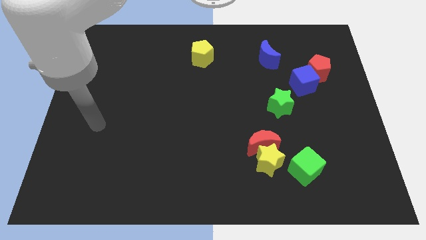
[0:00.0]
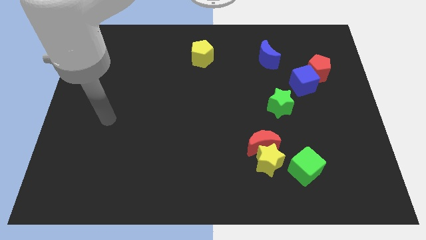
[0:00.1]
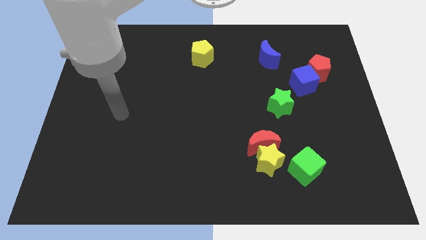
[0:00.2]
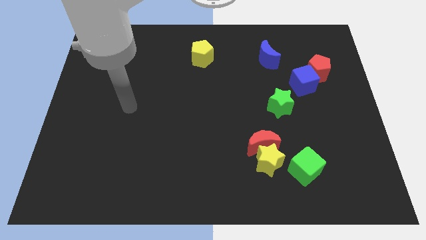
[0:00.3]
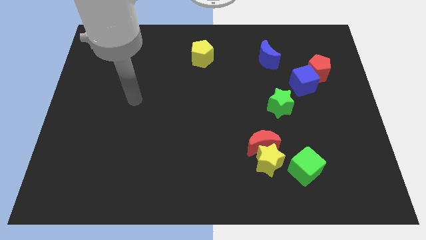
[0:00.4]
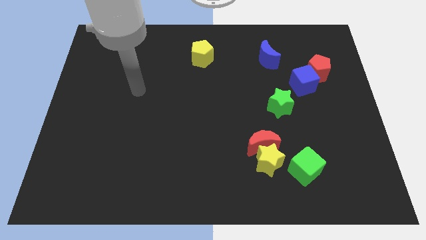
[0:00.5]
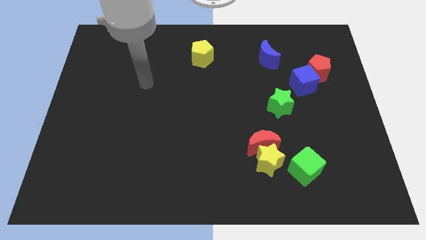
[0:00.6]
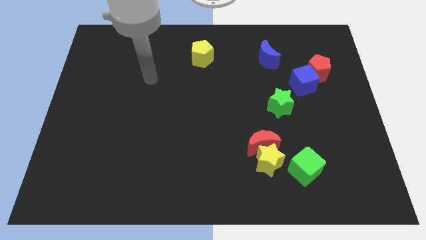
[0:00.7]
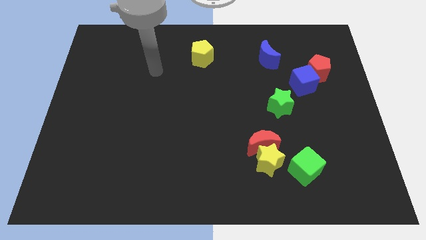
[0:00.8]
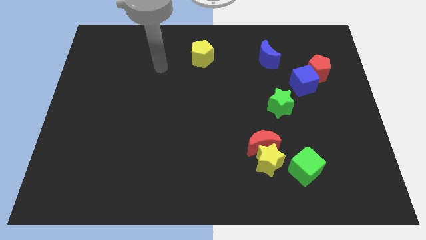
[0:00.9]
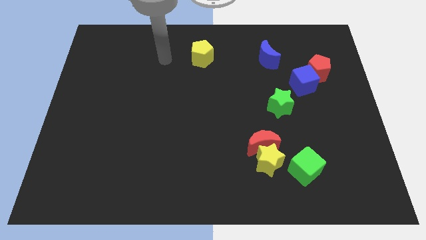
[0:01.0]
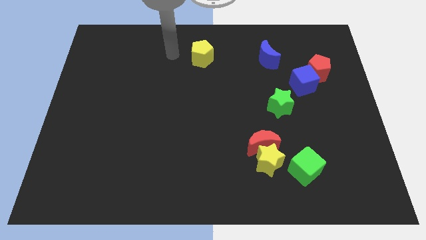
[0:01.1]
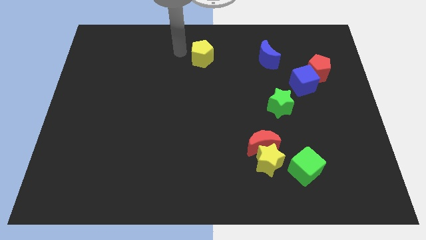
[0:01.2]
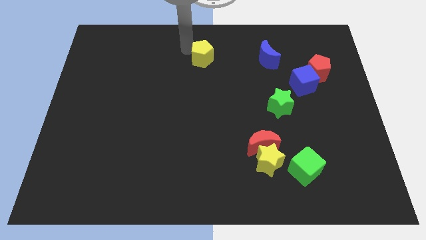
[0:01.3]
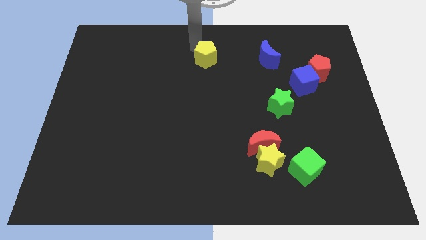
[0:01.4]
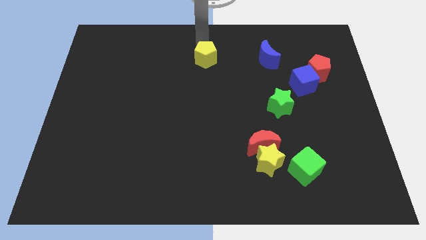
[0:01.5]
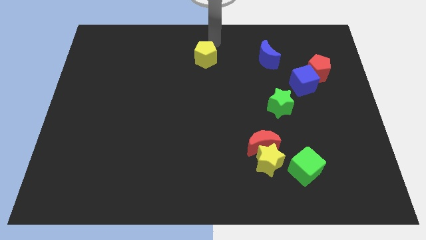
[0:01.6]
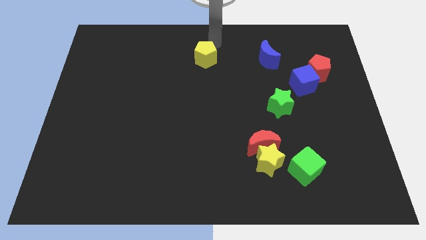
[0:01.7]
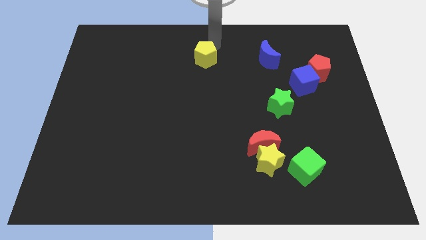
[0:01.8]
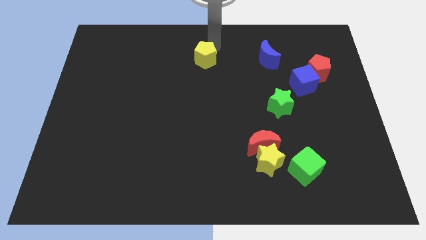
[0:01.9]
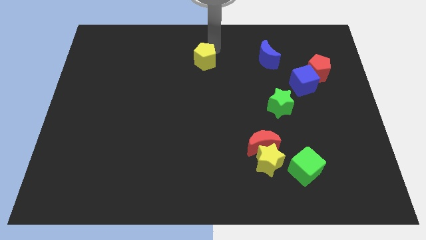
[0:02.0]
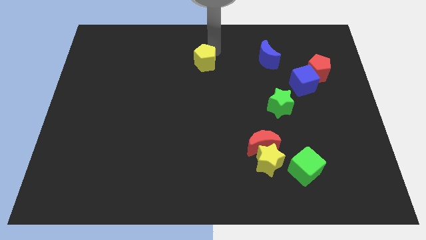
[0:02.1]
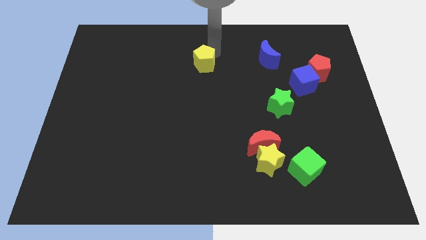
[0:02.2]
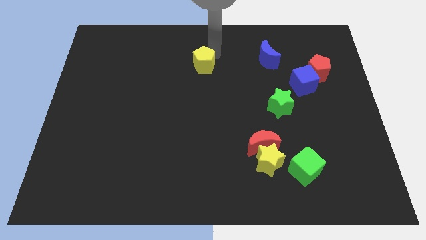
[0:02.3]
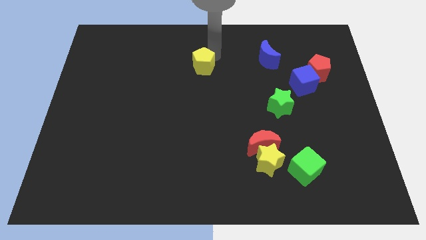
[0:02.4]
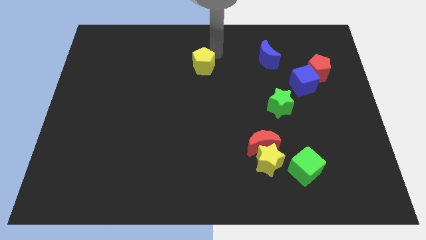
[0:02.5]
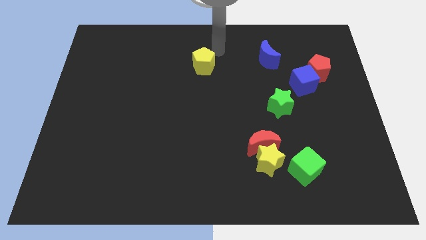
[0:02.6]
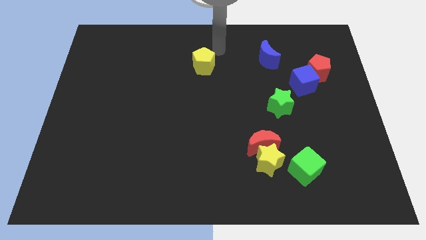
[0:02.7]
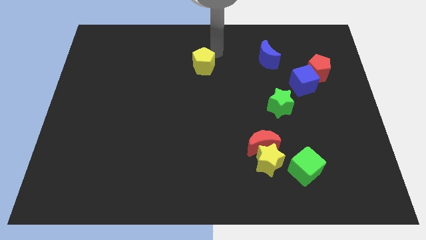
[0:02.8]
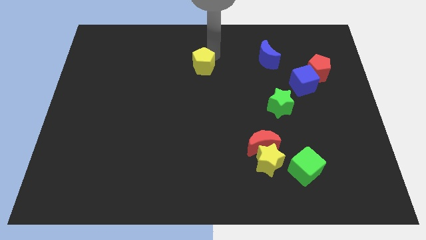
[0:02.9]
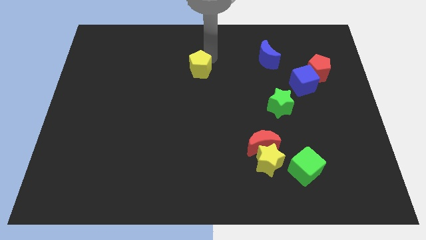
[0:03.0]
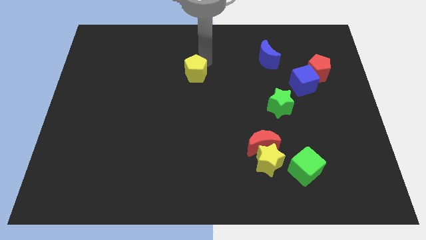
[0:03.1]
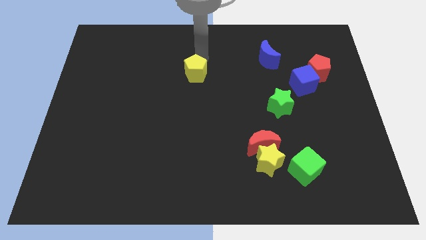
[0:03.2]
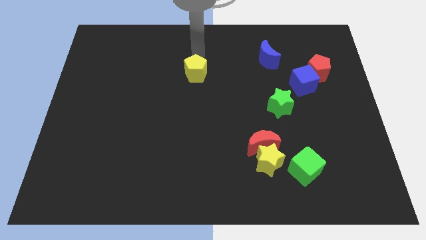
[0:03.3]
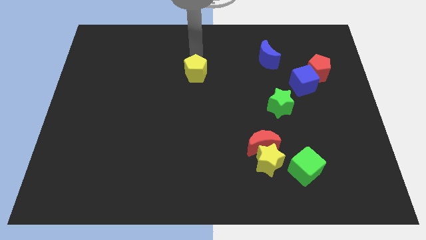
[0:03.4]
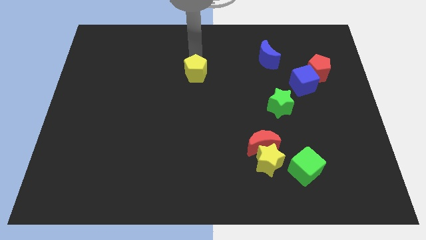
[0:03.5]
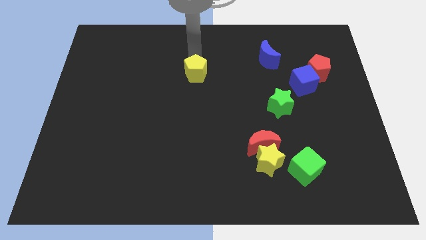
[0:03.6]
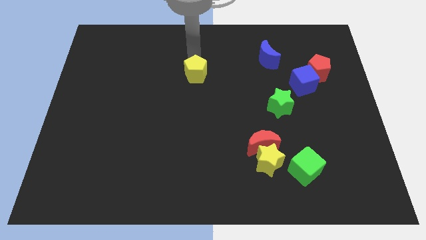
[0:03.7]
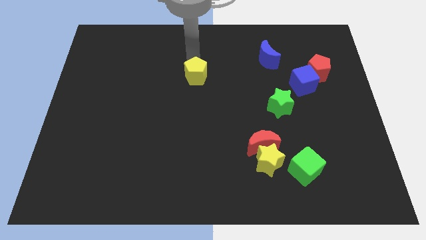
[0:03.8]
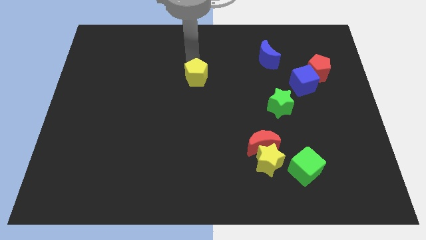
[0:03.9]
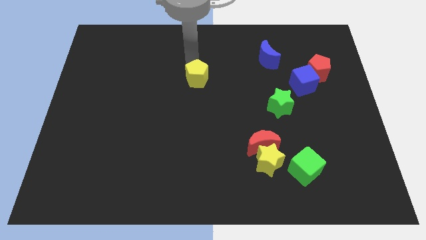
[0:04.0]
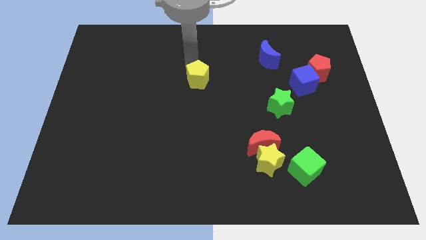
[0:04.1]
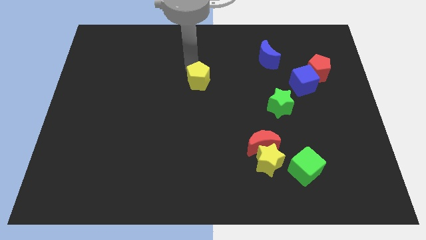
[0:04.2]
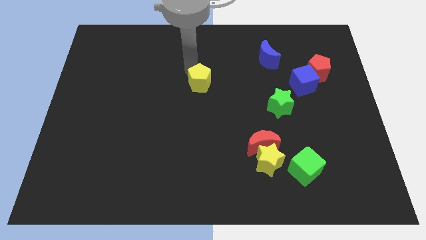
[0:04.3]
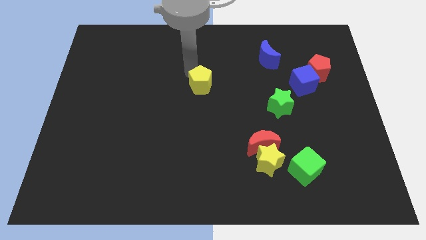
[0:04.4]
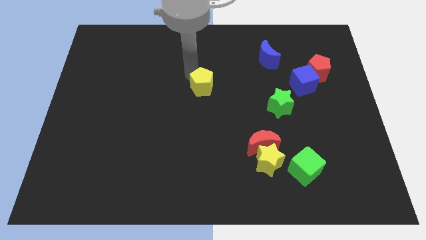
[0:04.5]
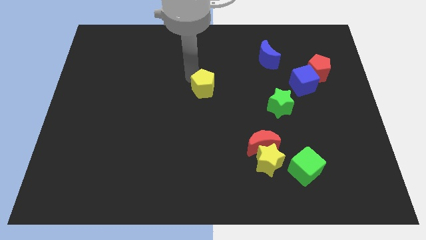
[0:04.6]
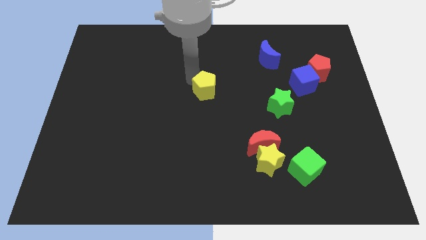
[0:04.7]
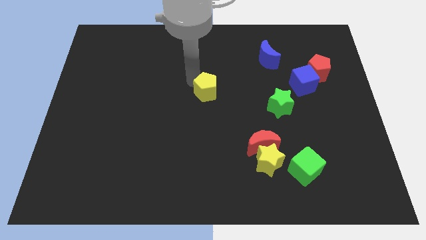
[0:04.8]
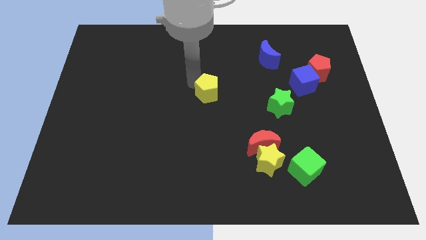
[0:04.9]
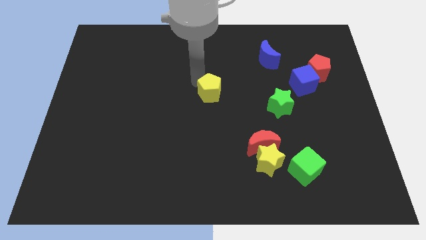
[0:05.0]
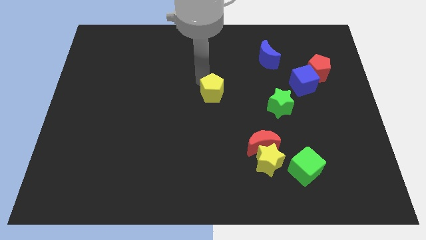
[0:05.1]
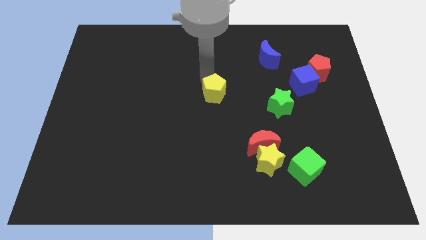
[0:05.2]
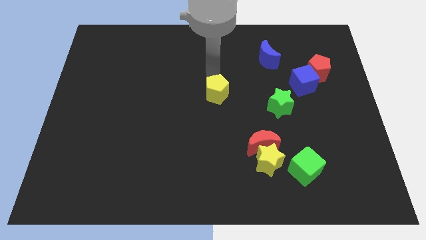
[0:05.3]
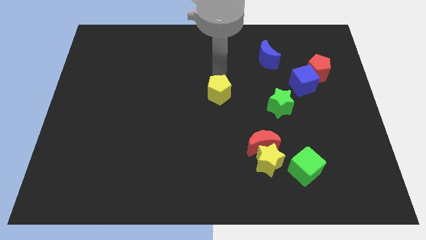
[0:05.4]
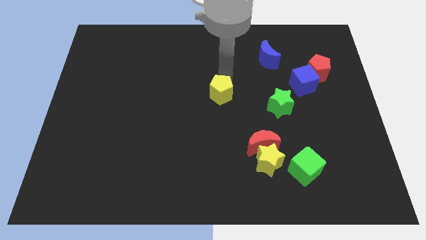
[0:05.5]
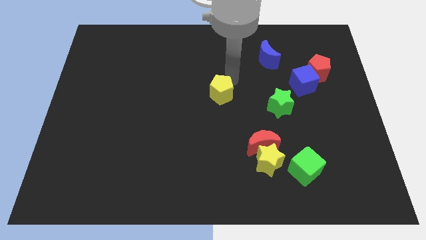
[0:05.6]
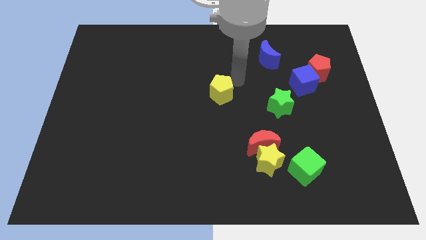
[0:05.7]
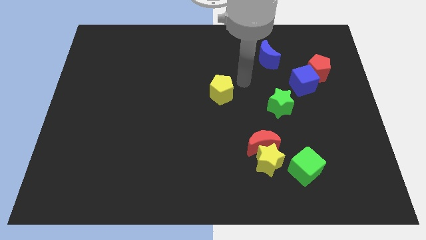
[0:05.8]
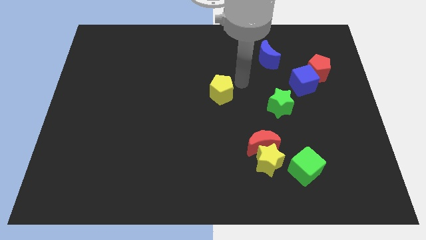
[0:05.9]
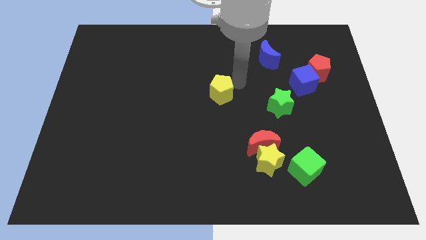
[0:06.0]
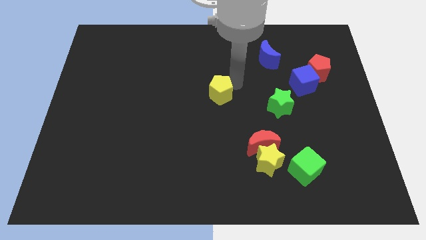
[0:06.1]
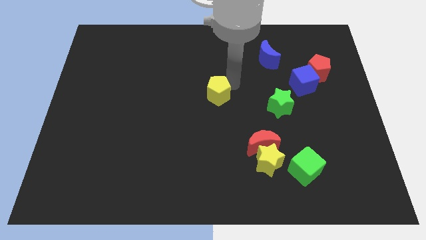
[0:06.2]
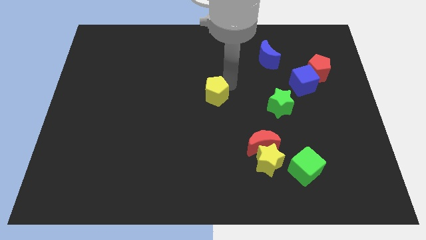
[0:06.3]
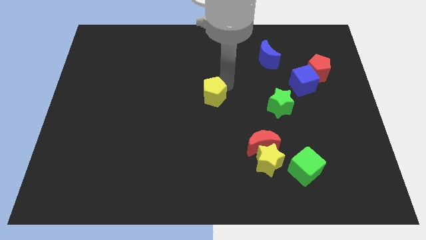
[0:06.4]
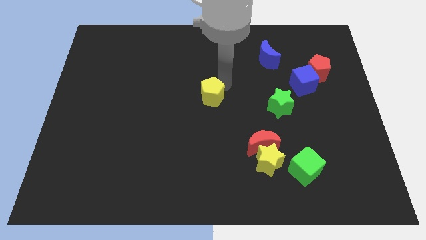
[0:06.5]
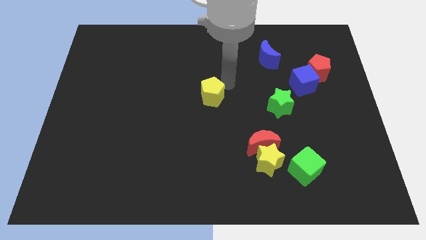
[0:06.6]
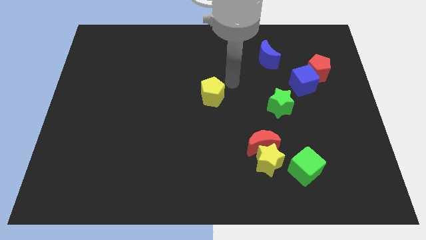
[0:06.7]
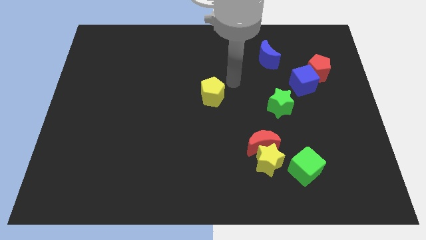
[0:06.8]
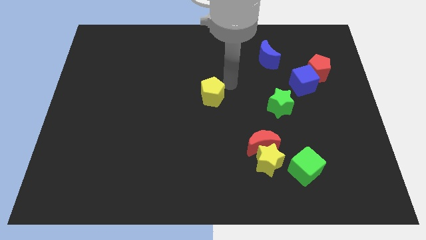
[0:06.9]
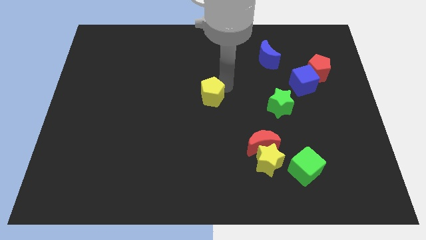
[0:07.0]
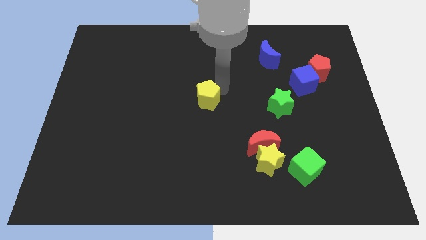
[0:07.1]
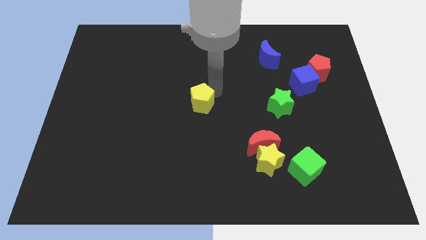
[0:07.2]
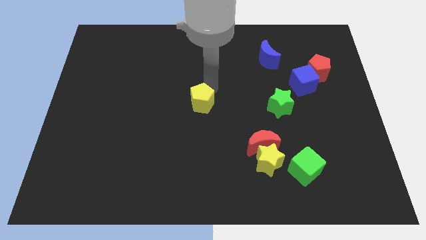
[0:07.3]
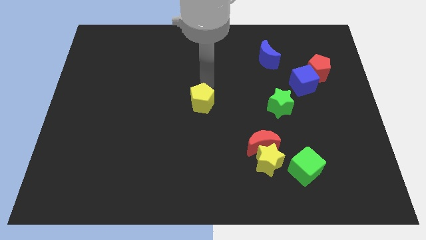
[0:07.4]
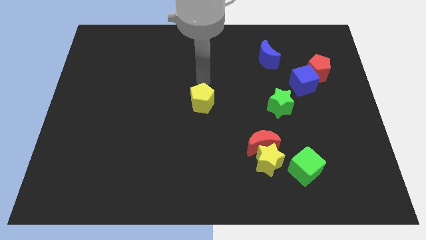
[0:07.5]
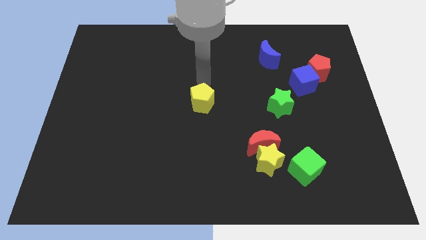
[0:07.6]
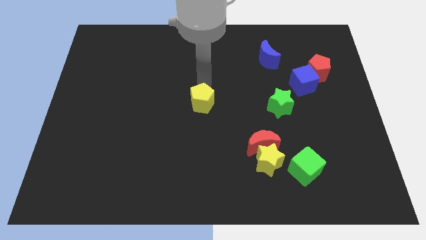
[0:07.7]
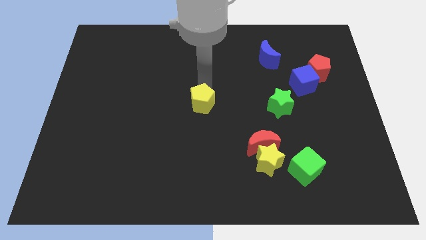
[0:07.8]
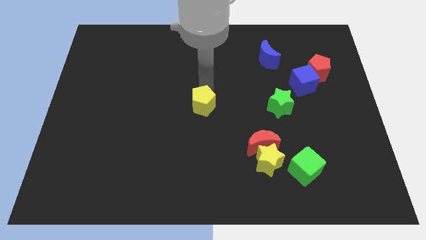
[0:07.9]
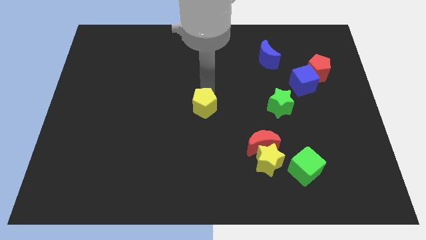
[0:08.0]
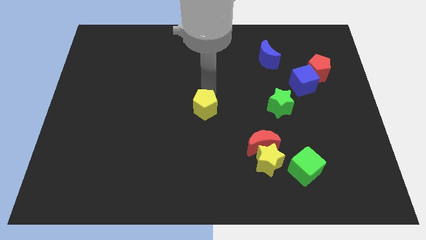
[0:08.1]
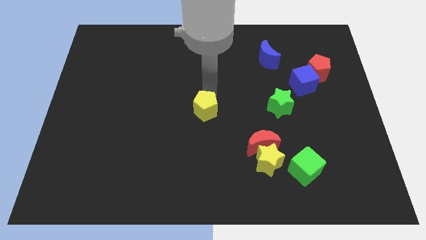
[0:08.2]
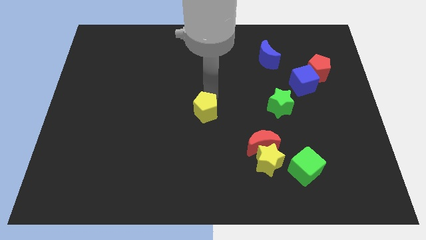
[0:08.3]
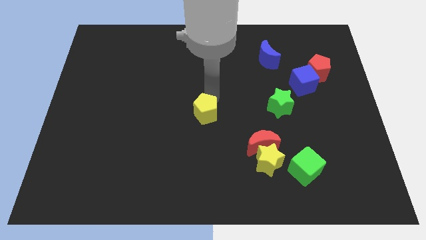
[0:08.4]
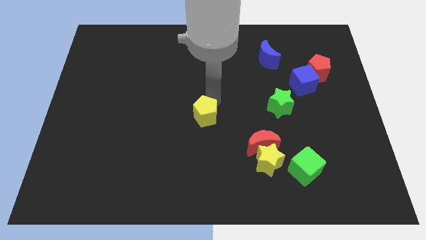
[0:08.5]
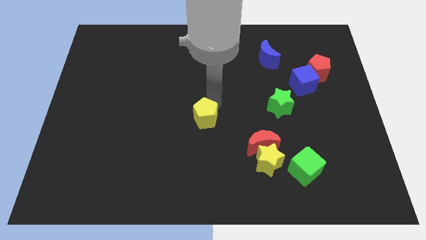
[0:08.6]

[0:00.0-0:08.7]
push the yellow pentagon down
